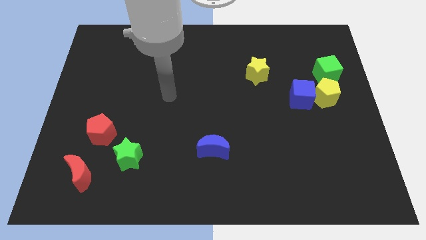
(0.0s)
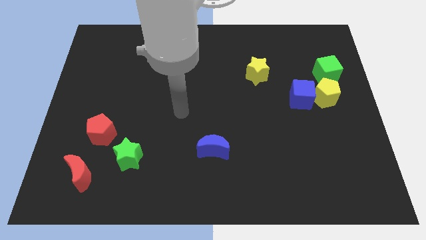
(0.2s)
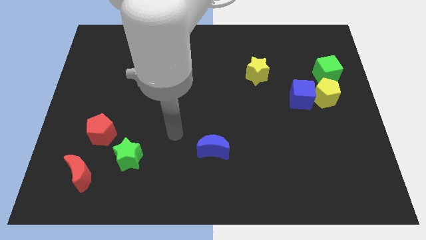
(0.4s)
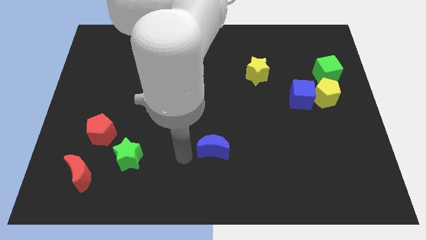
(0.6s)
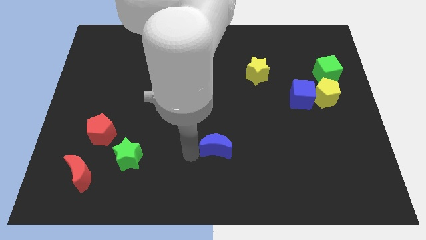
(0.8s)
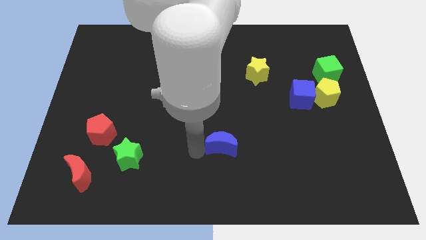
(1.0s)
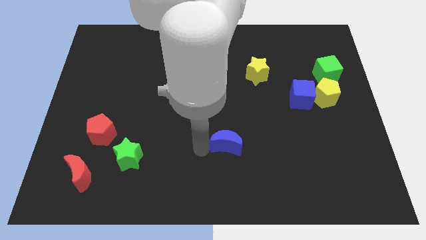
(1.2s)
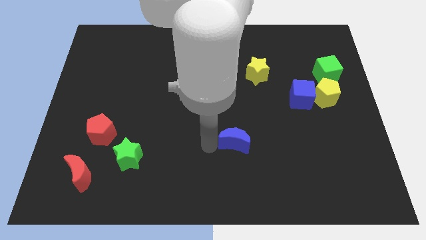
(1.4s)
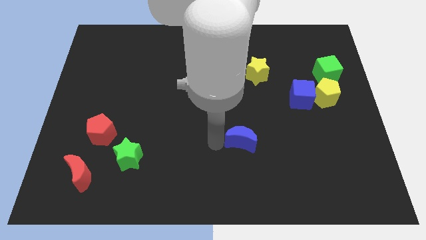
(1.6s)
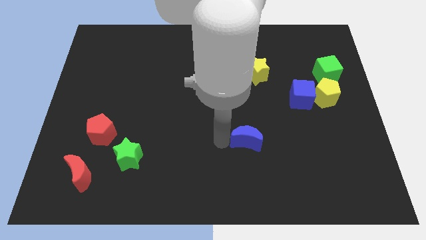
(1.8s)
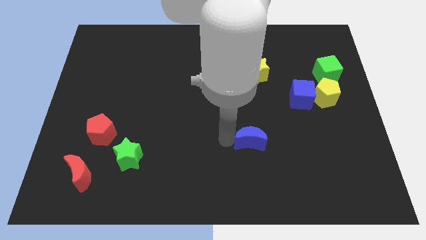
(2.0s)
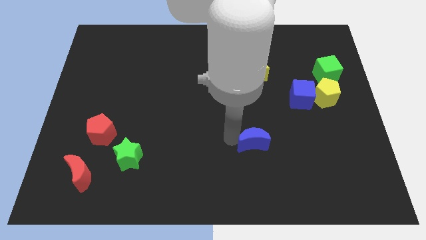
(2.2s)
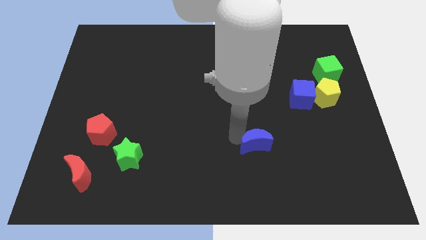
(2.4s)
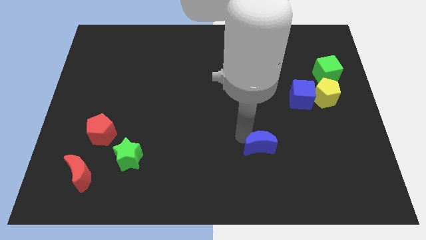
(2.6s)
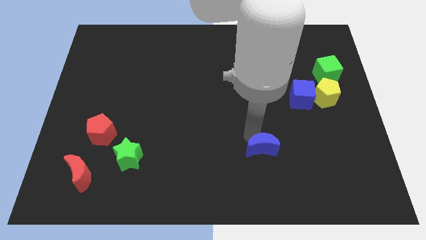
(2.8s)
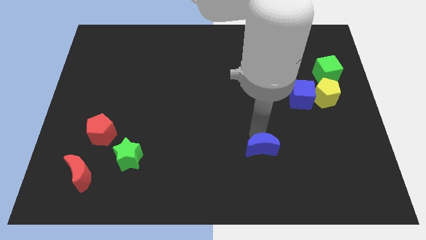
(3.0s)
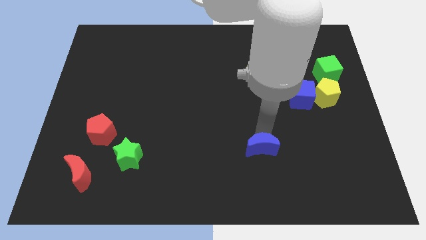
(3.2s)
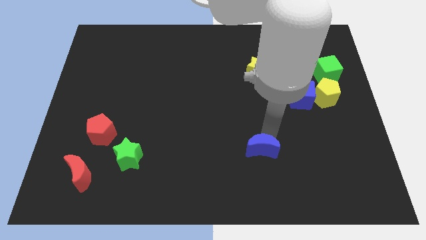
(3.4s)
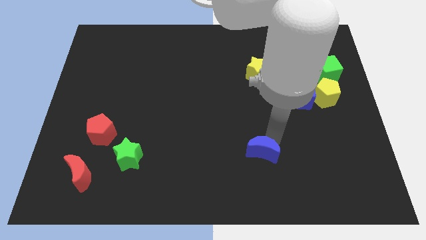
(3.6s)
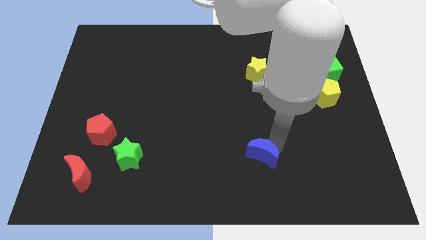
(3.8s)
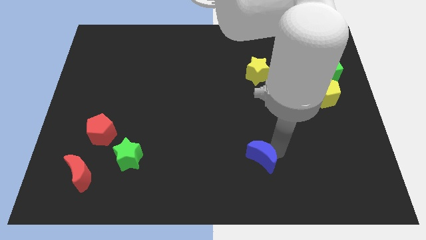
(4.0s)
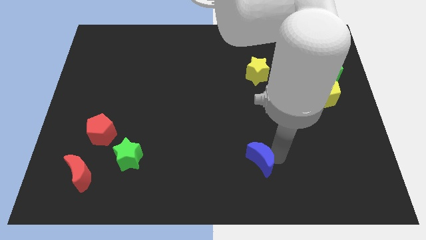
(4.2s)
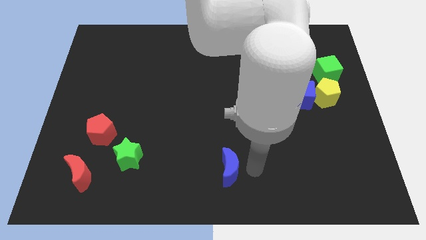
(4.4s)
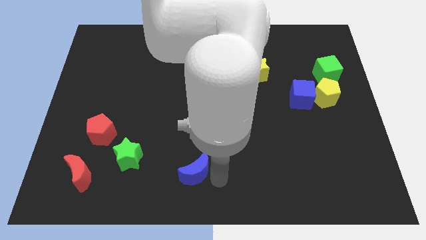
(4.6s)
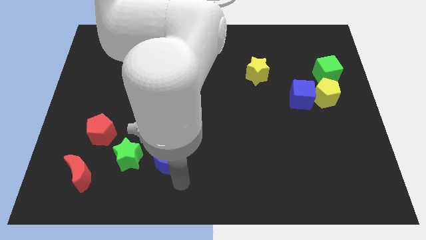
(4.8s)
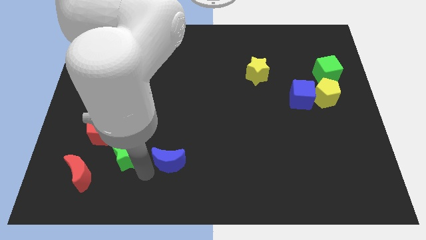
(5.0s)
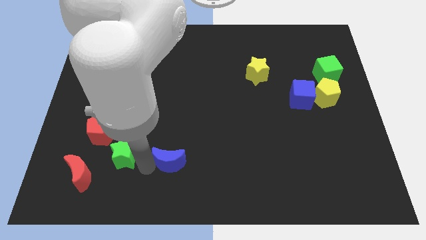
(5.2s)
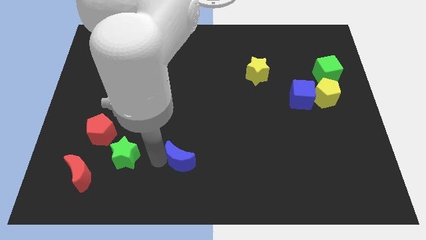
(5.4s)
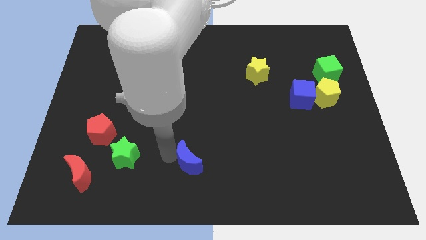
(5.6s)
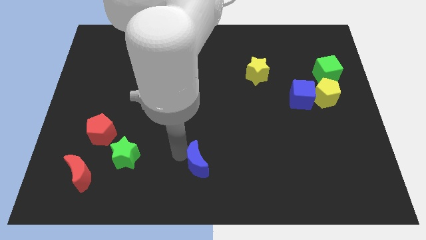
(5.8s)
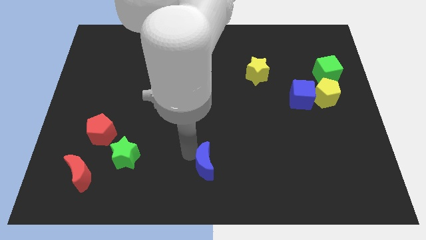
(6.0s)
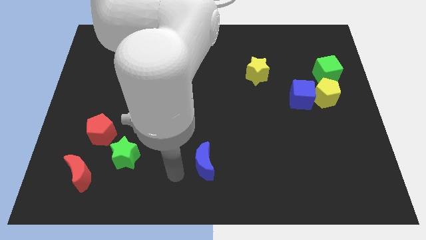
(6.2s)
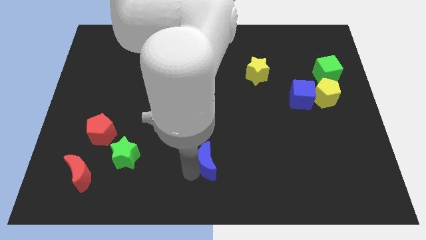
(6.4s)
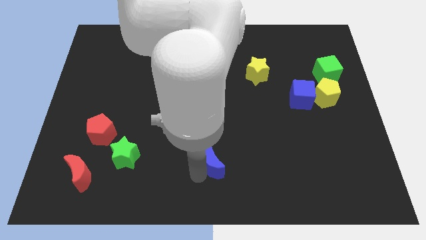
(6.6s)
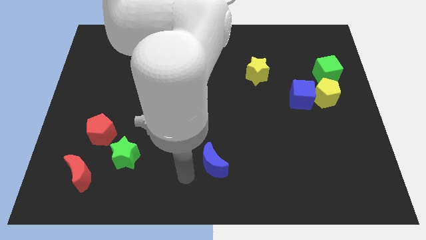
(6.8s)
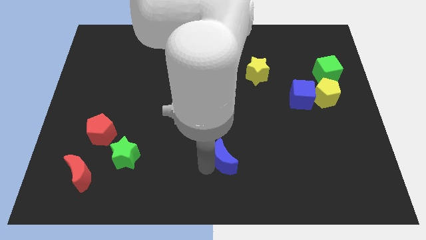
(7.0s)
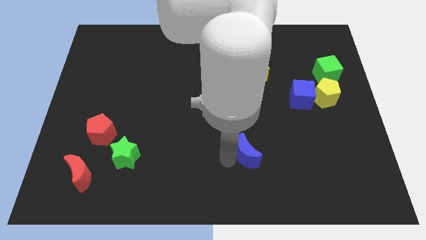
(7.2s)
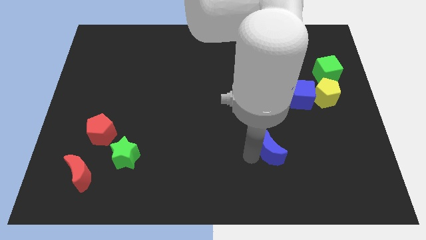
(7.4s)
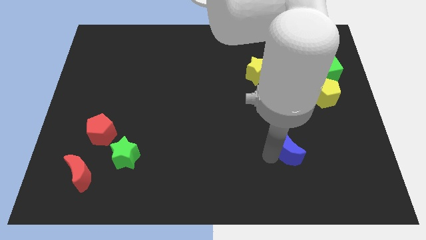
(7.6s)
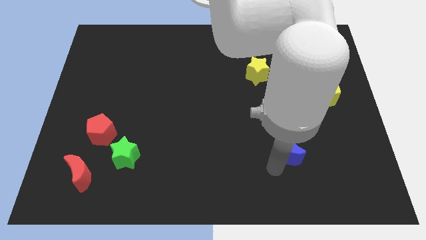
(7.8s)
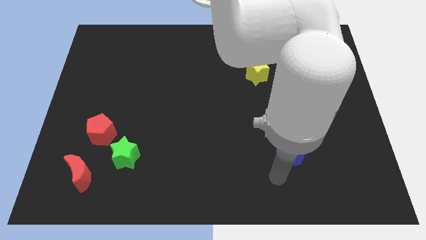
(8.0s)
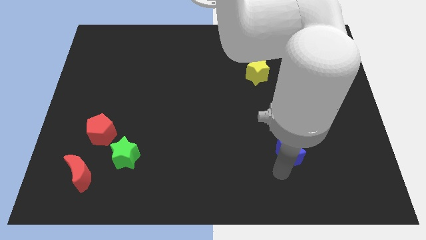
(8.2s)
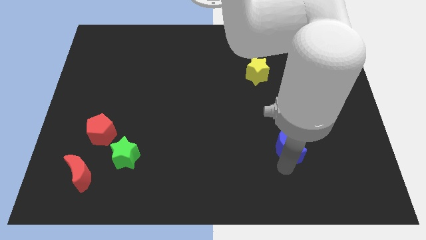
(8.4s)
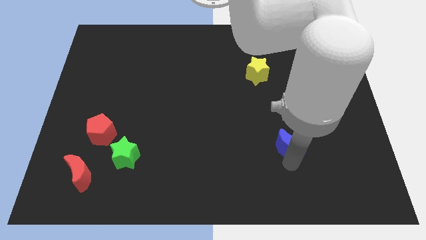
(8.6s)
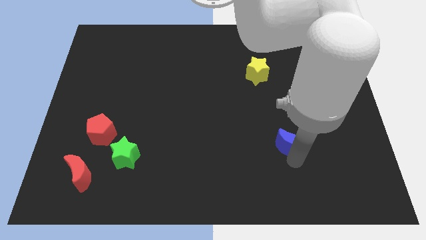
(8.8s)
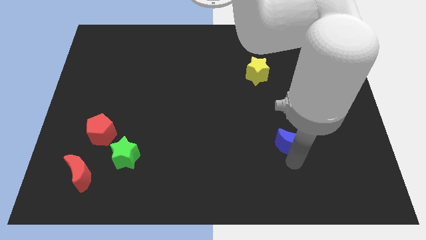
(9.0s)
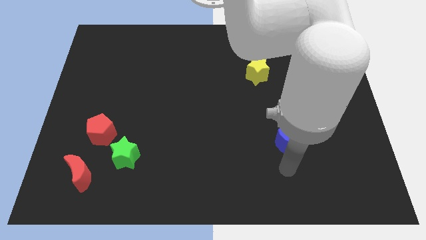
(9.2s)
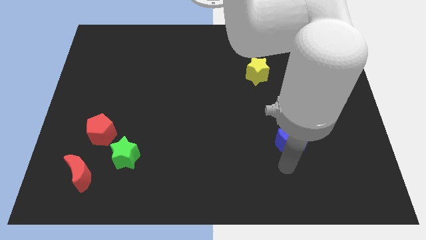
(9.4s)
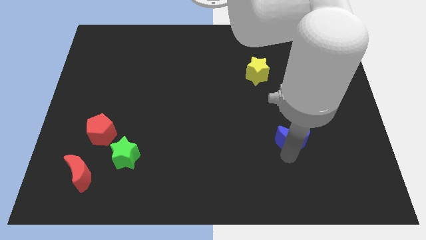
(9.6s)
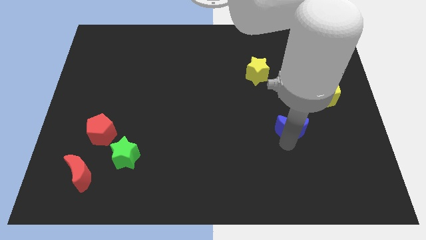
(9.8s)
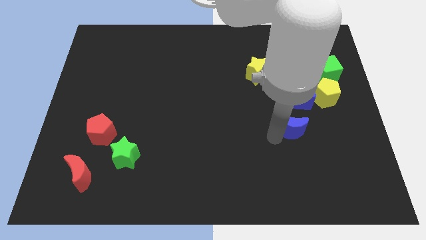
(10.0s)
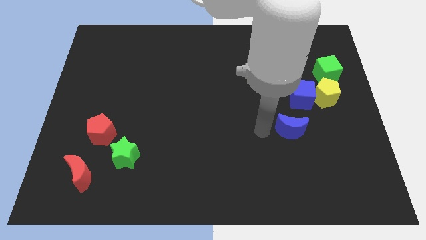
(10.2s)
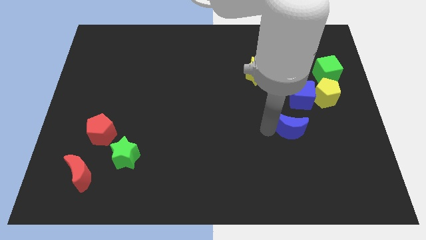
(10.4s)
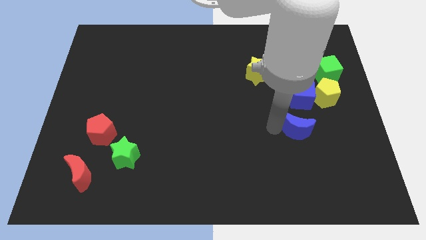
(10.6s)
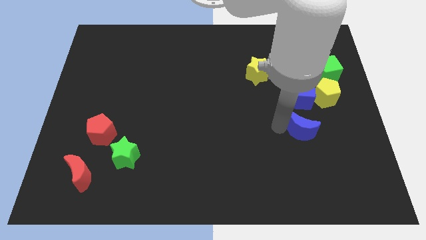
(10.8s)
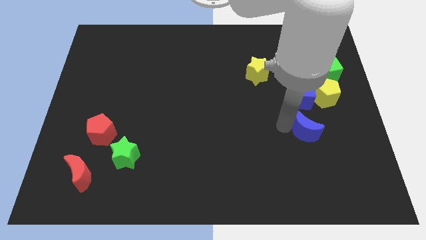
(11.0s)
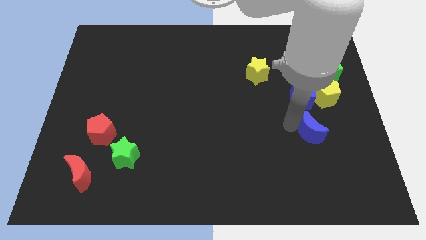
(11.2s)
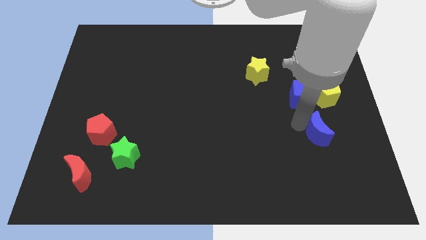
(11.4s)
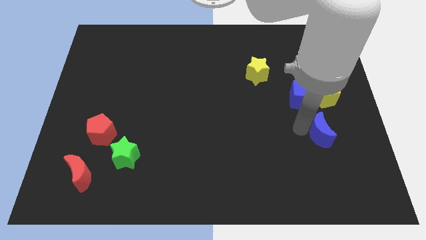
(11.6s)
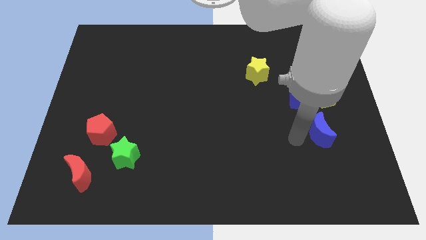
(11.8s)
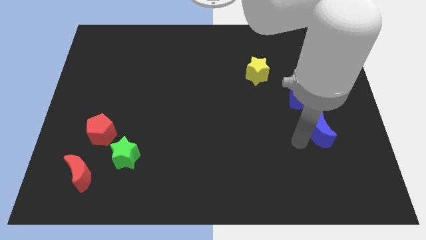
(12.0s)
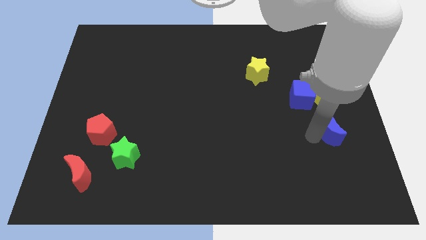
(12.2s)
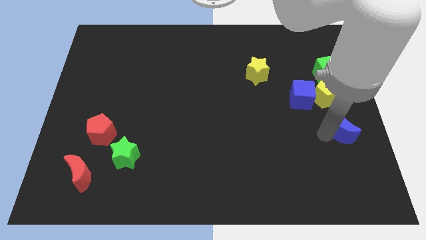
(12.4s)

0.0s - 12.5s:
push the blue moon to the right side

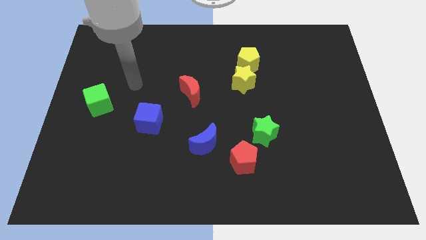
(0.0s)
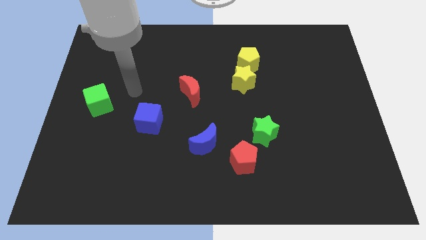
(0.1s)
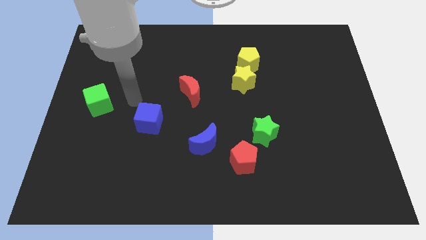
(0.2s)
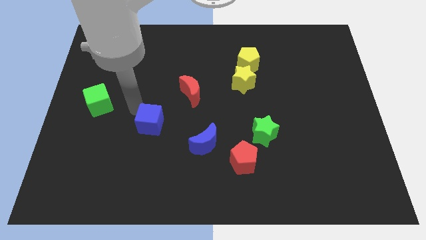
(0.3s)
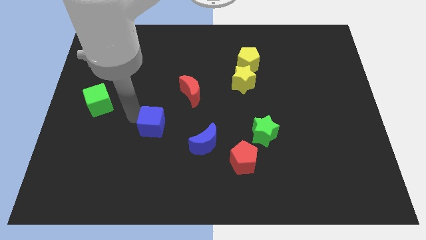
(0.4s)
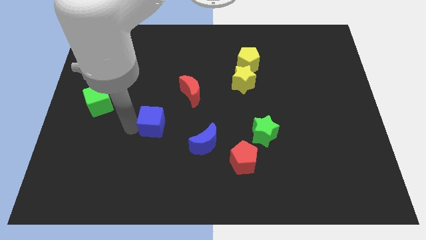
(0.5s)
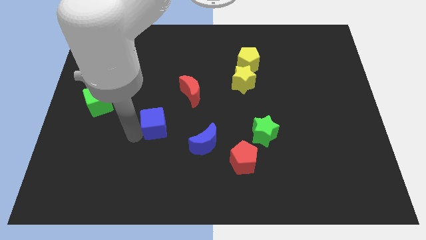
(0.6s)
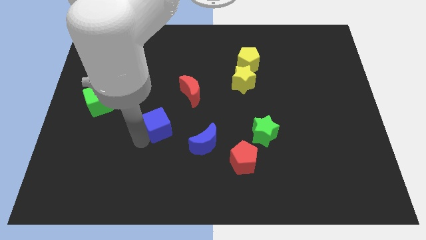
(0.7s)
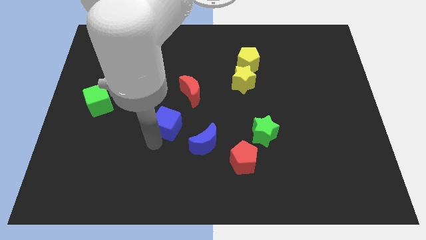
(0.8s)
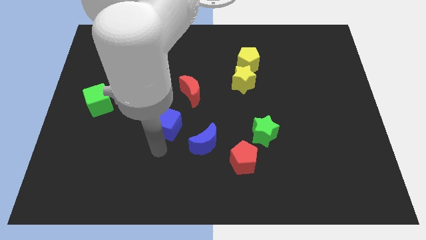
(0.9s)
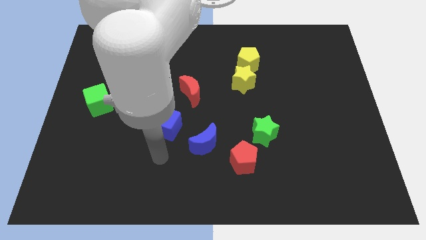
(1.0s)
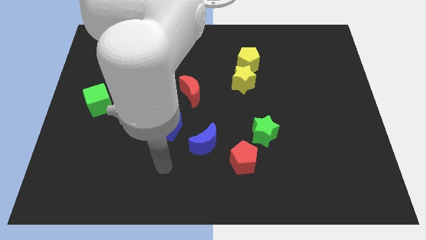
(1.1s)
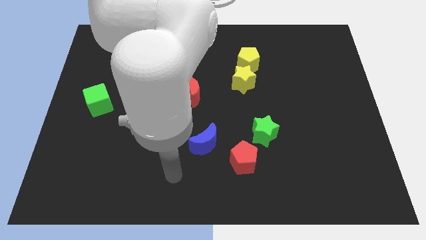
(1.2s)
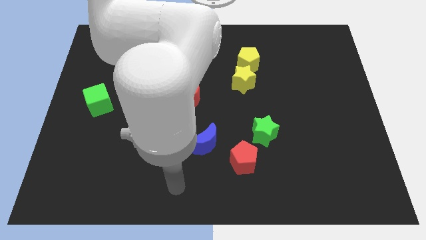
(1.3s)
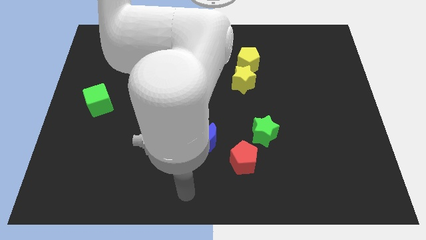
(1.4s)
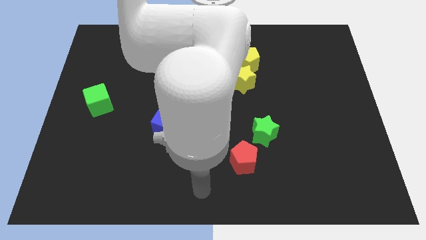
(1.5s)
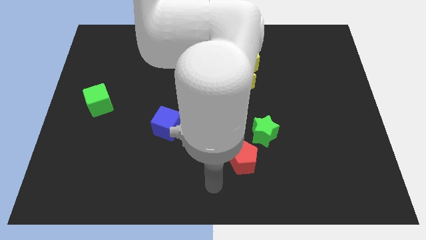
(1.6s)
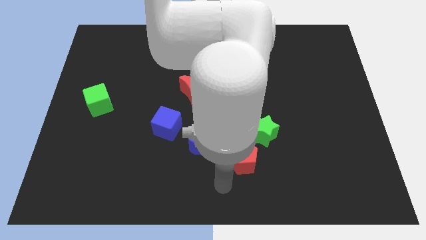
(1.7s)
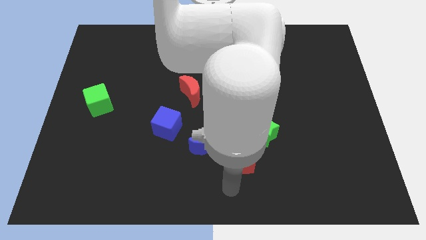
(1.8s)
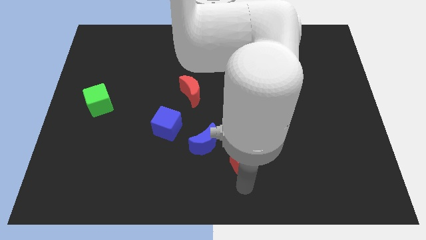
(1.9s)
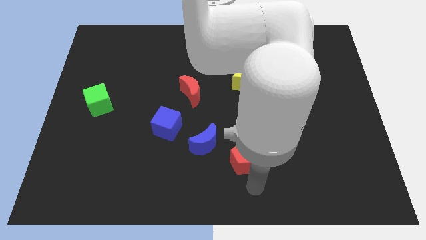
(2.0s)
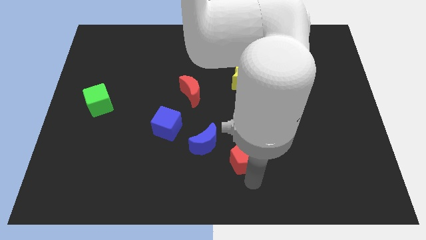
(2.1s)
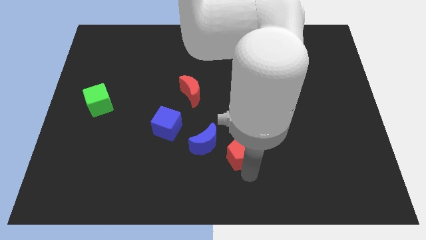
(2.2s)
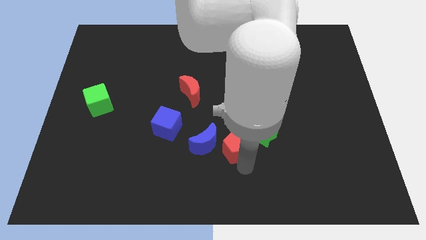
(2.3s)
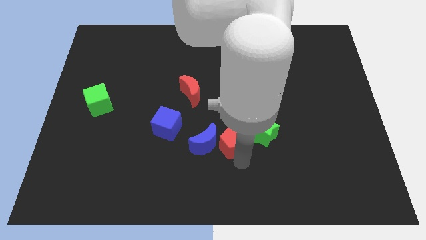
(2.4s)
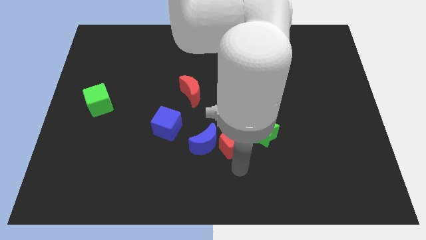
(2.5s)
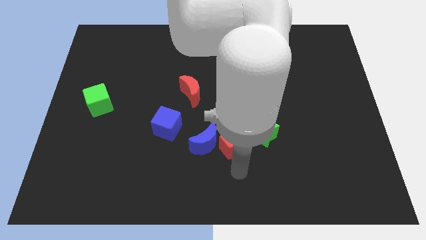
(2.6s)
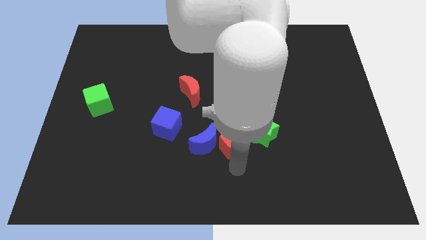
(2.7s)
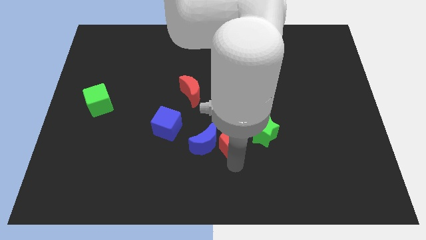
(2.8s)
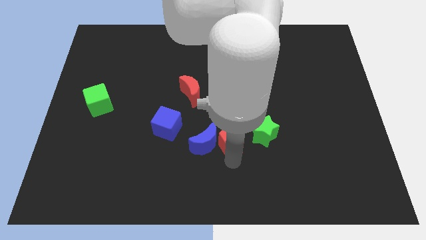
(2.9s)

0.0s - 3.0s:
move the red pentagon to the center
